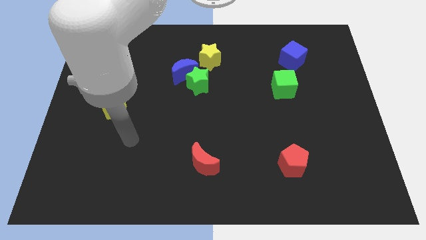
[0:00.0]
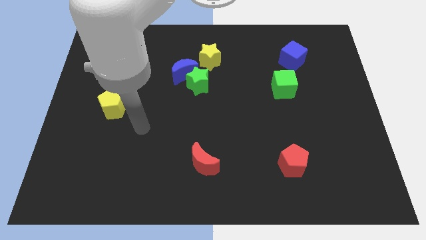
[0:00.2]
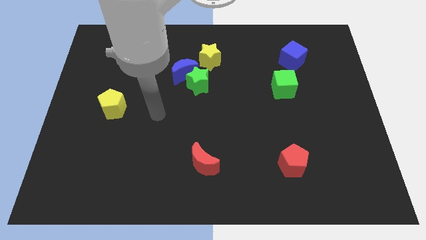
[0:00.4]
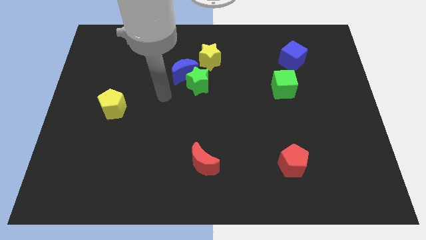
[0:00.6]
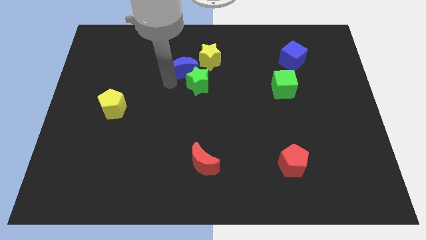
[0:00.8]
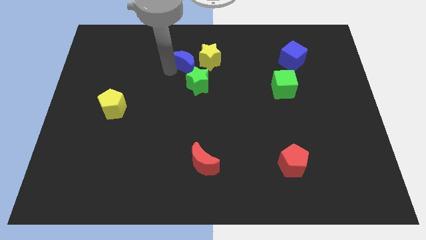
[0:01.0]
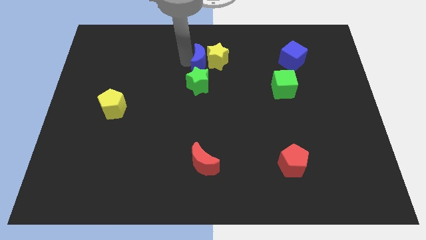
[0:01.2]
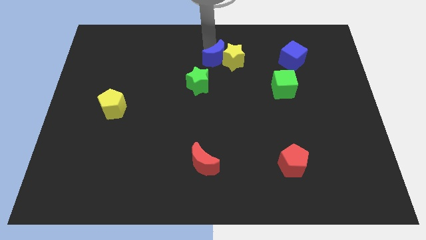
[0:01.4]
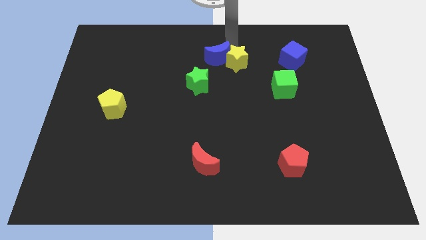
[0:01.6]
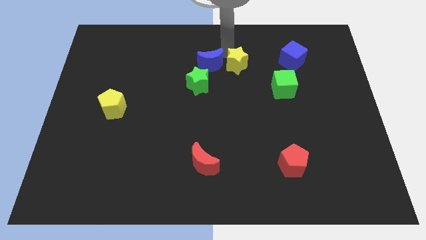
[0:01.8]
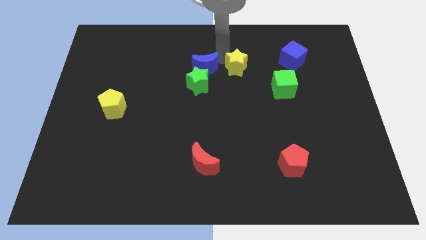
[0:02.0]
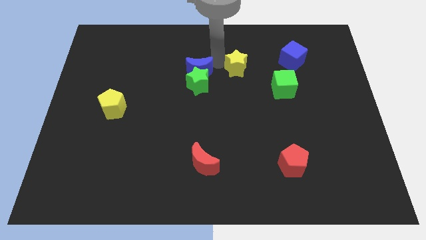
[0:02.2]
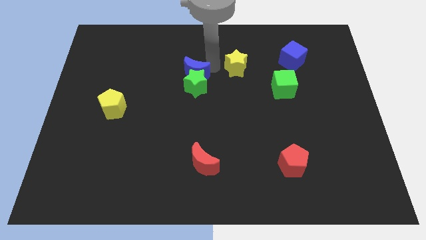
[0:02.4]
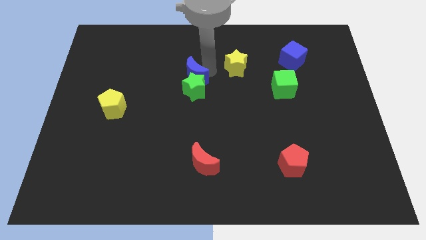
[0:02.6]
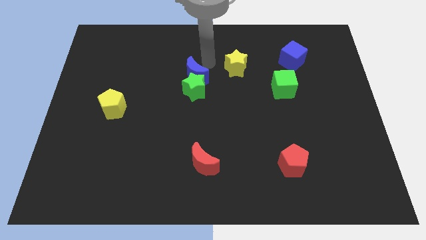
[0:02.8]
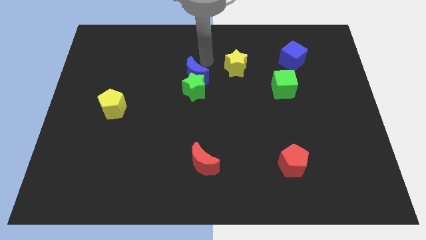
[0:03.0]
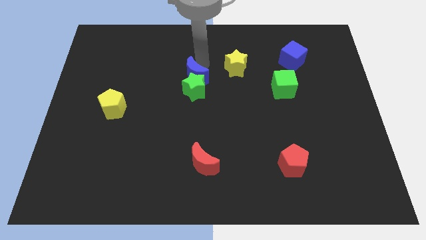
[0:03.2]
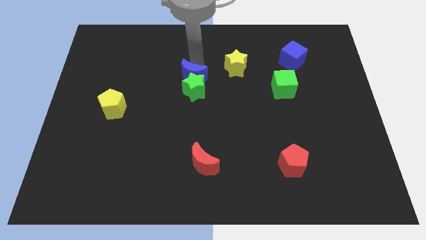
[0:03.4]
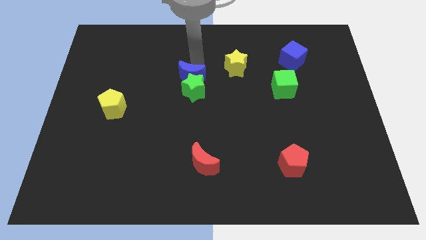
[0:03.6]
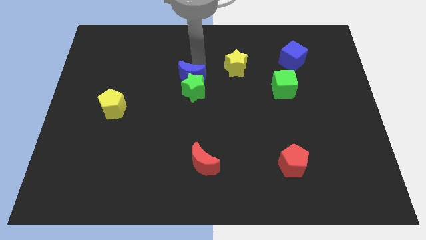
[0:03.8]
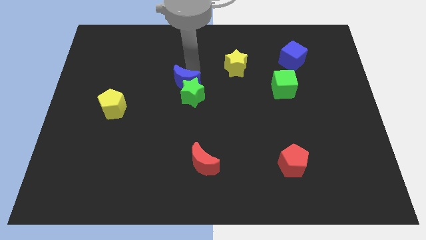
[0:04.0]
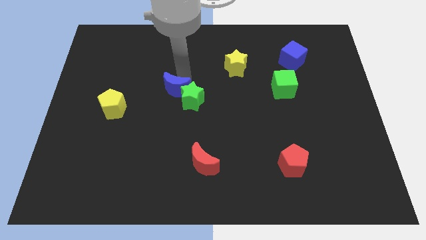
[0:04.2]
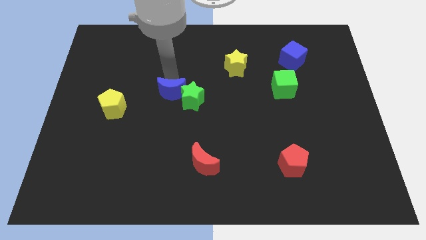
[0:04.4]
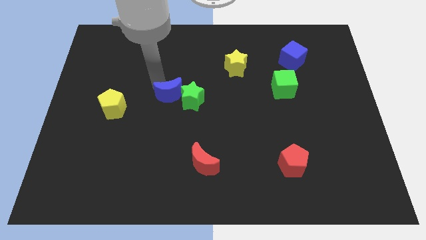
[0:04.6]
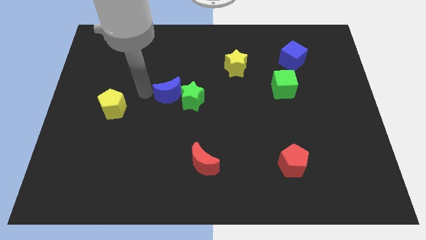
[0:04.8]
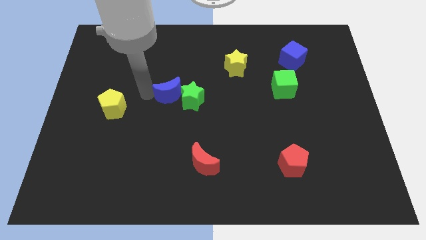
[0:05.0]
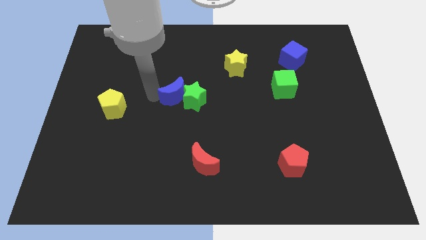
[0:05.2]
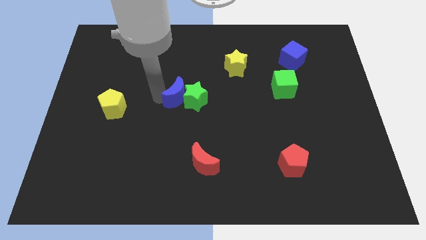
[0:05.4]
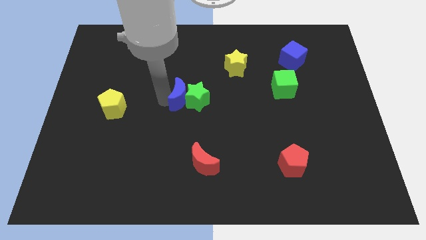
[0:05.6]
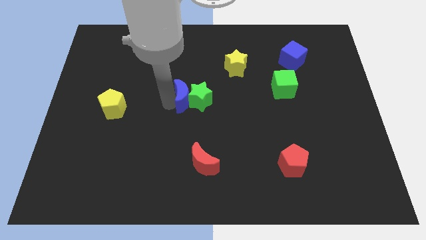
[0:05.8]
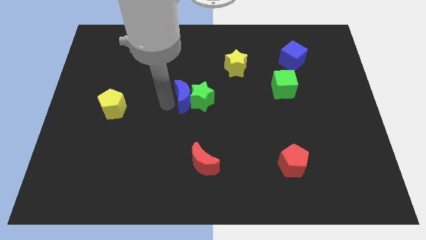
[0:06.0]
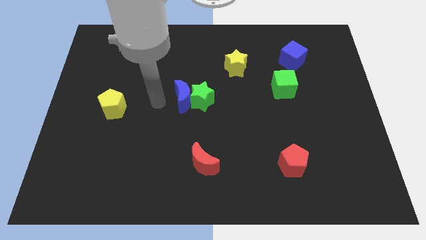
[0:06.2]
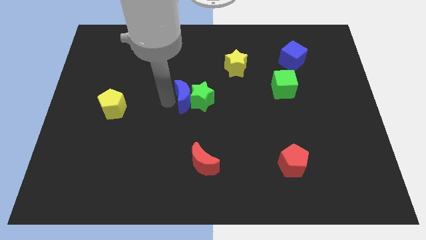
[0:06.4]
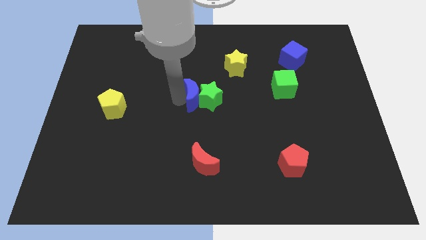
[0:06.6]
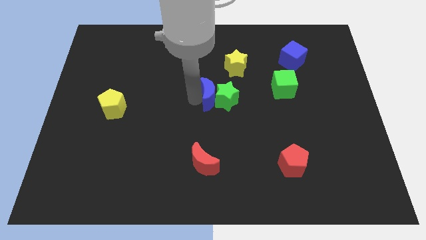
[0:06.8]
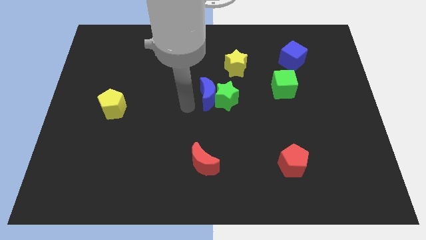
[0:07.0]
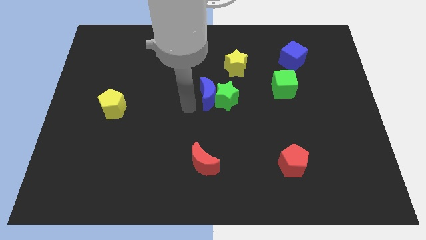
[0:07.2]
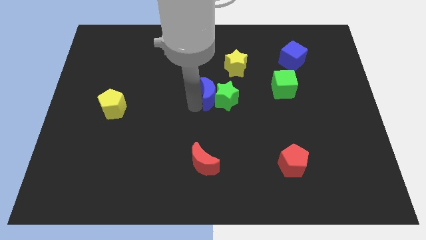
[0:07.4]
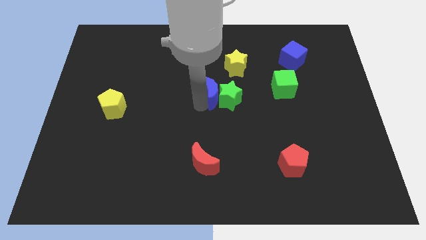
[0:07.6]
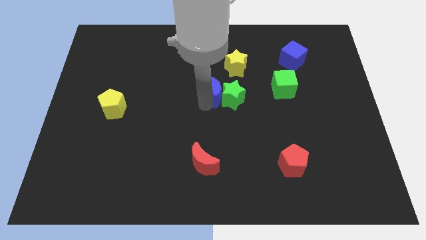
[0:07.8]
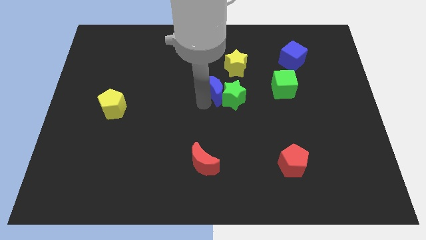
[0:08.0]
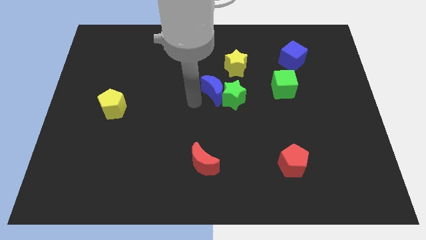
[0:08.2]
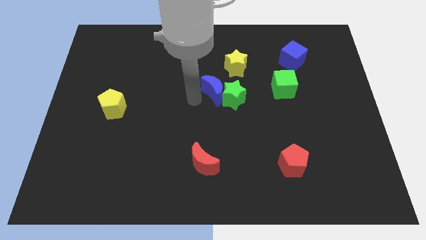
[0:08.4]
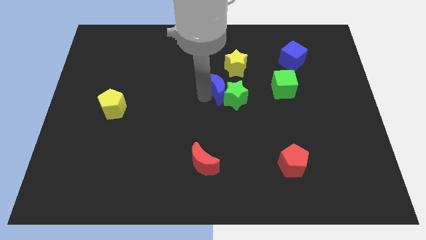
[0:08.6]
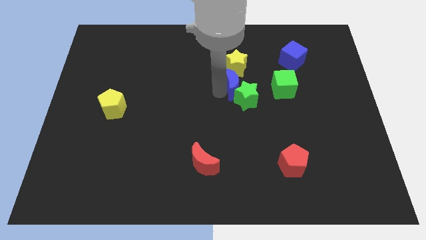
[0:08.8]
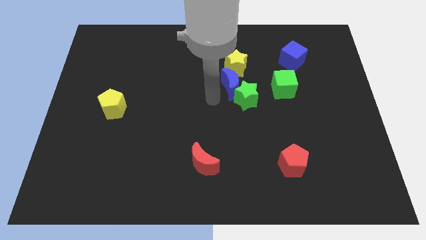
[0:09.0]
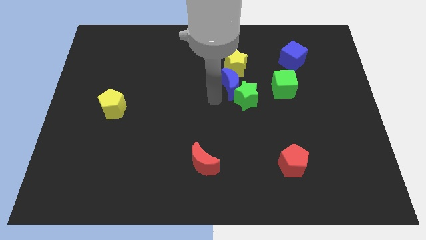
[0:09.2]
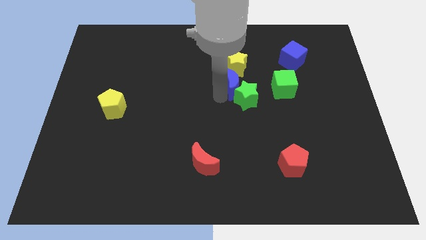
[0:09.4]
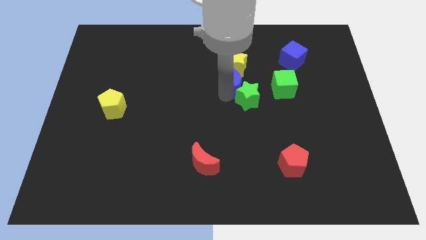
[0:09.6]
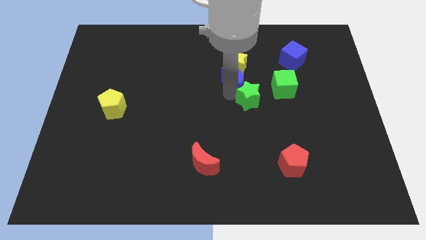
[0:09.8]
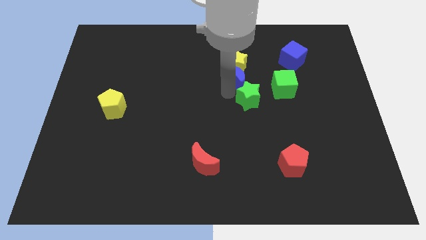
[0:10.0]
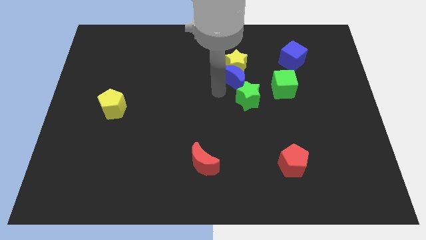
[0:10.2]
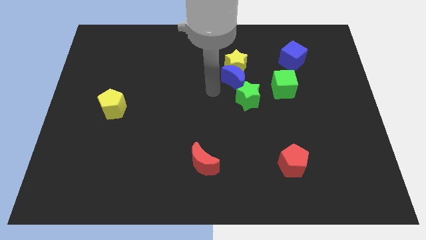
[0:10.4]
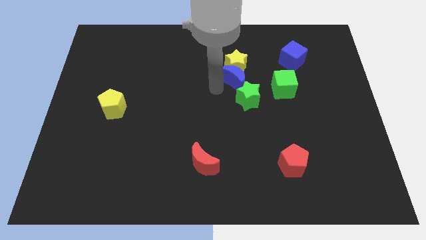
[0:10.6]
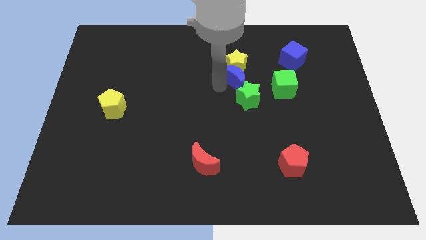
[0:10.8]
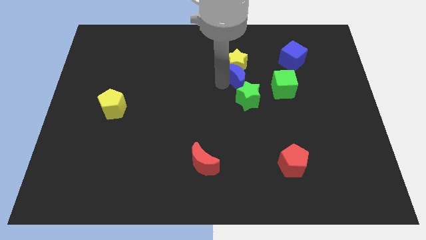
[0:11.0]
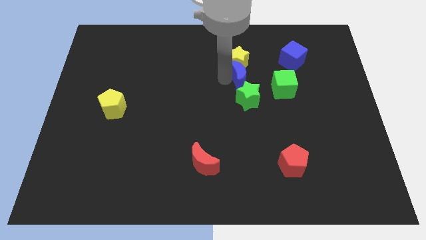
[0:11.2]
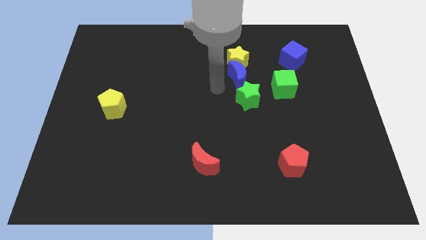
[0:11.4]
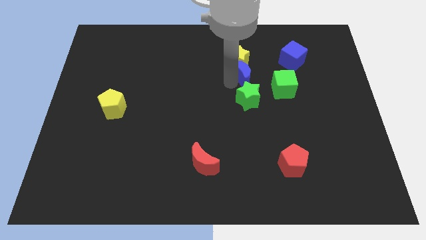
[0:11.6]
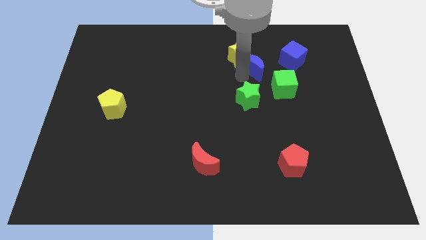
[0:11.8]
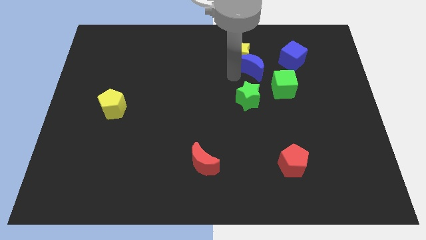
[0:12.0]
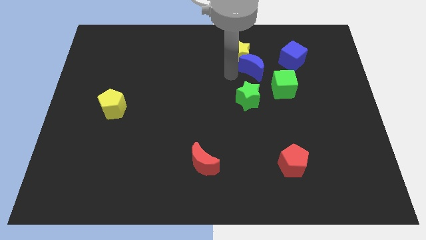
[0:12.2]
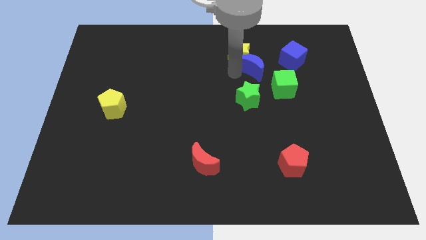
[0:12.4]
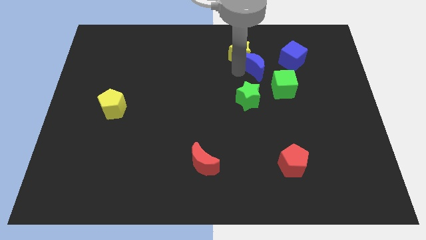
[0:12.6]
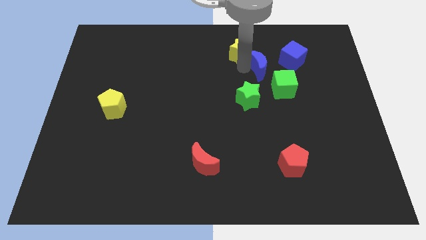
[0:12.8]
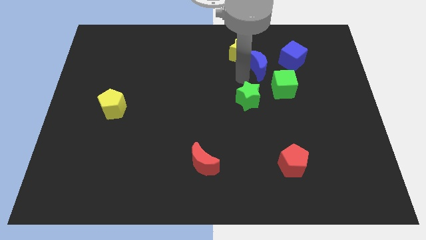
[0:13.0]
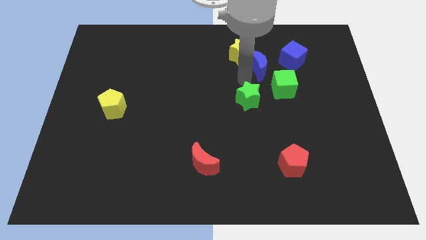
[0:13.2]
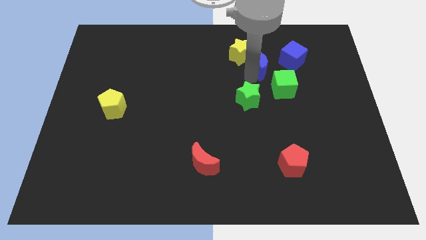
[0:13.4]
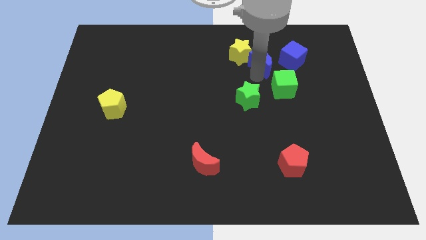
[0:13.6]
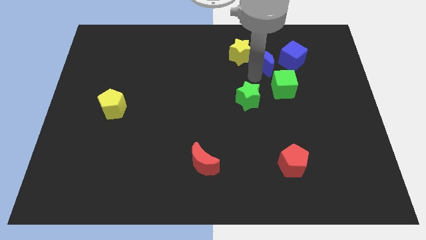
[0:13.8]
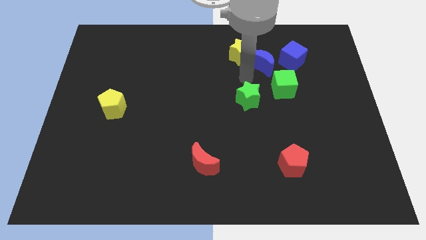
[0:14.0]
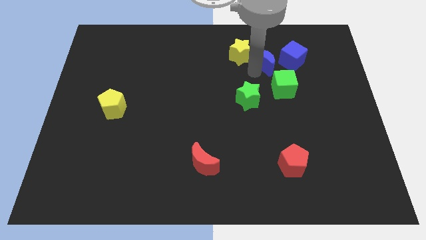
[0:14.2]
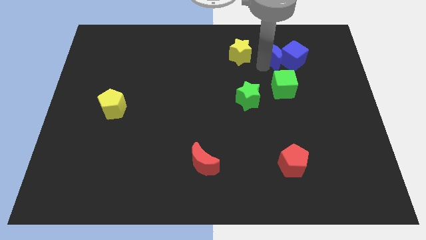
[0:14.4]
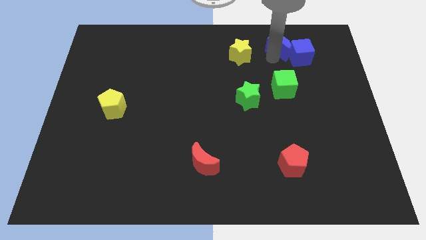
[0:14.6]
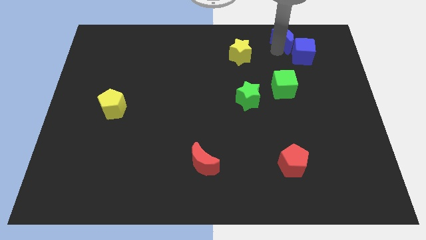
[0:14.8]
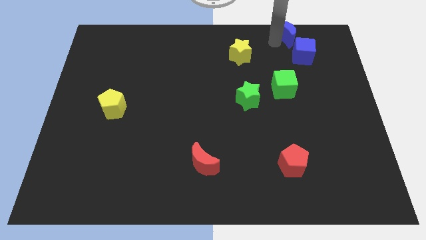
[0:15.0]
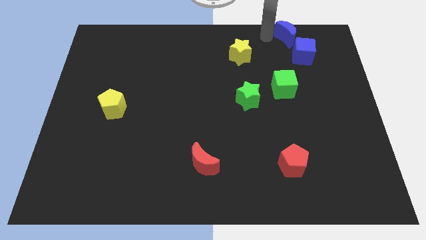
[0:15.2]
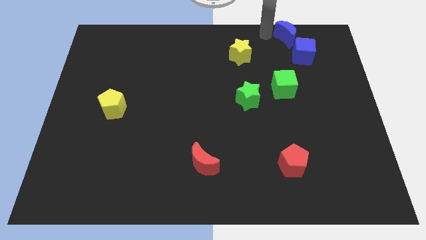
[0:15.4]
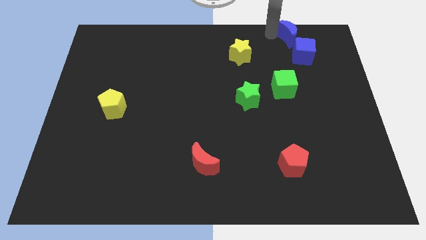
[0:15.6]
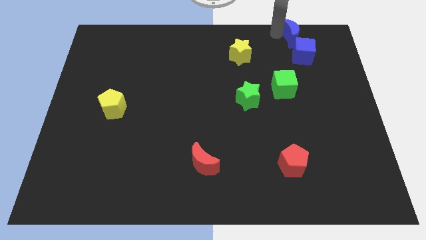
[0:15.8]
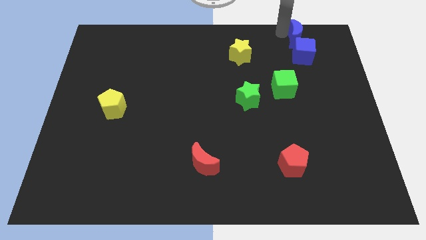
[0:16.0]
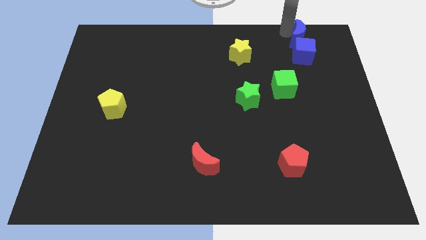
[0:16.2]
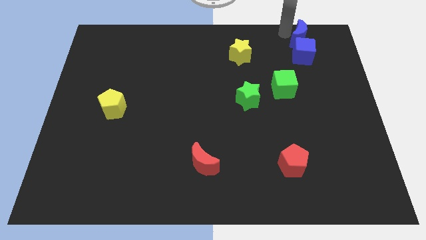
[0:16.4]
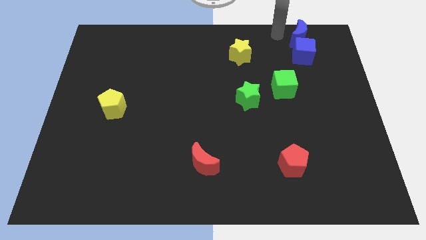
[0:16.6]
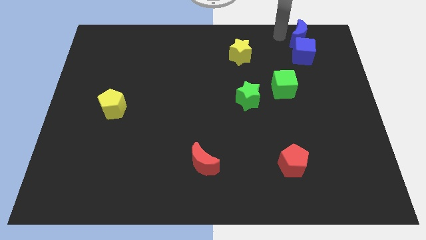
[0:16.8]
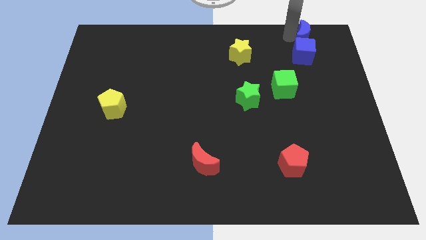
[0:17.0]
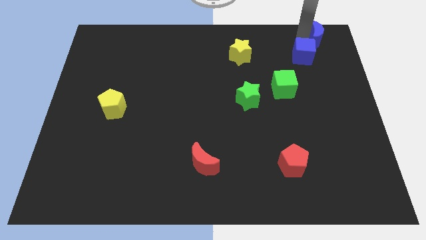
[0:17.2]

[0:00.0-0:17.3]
slide the blue moon to the top right
